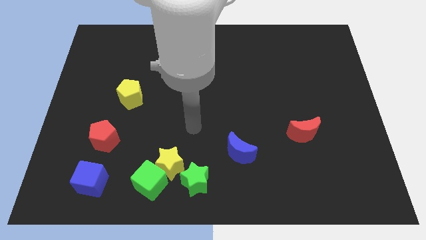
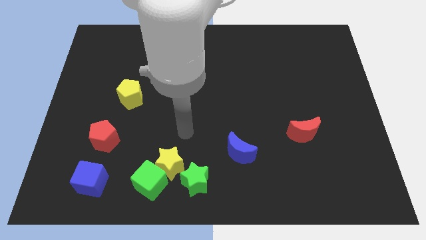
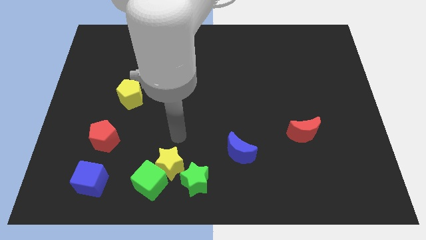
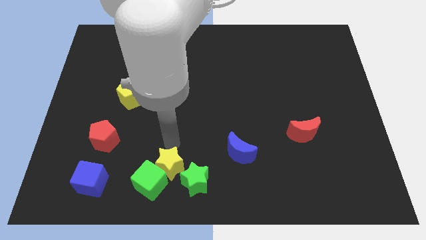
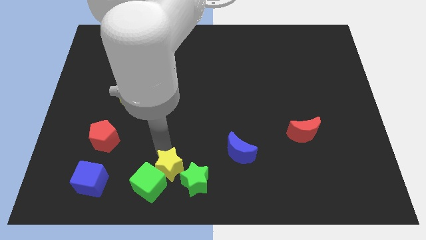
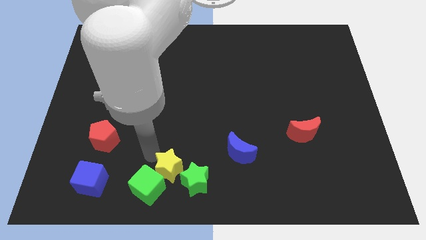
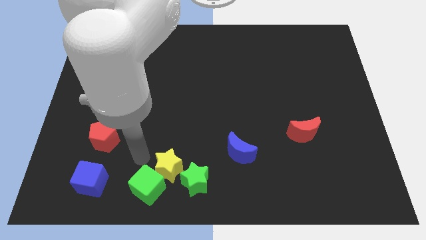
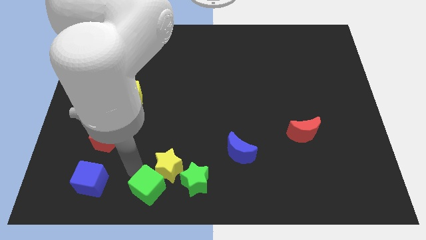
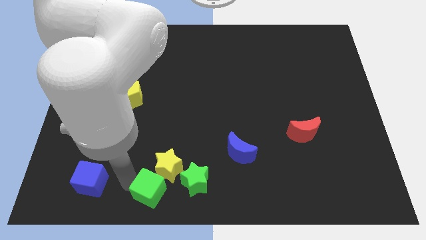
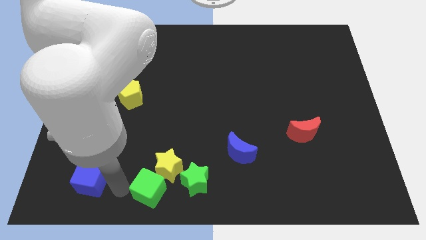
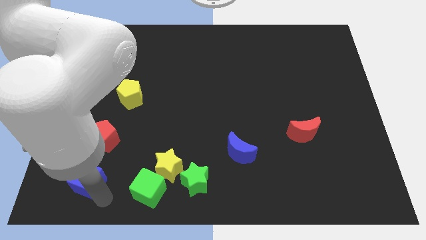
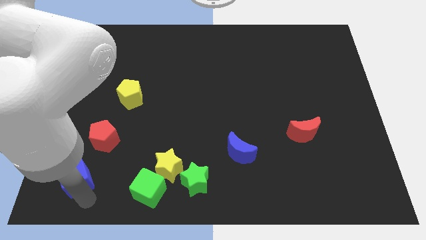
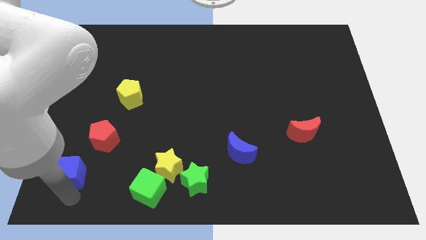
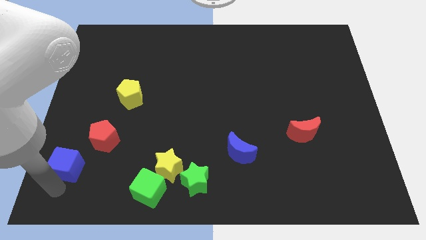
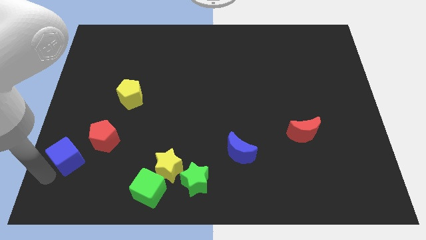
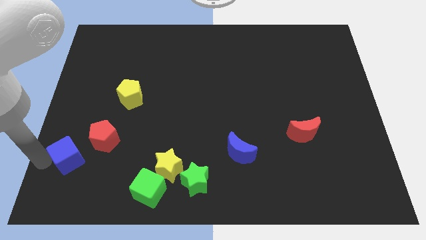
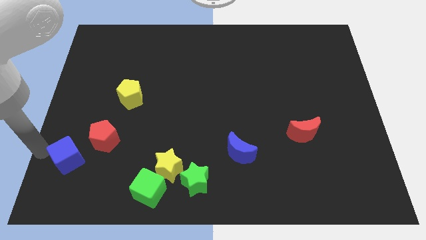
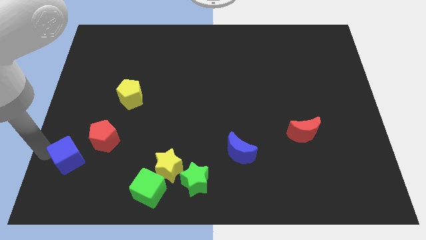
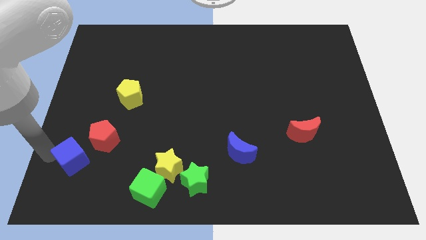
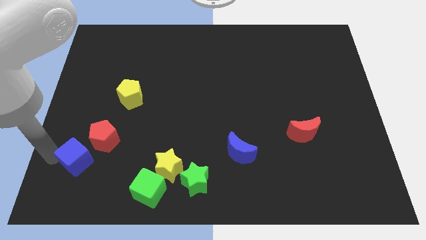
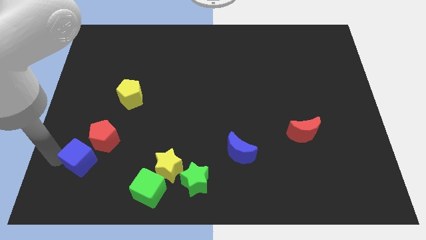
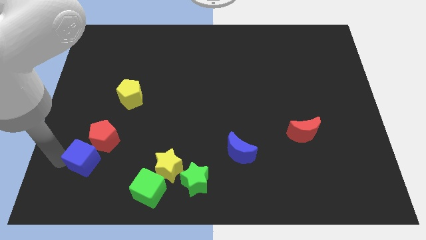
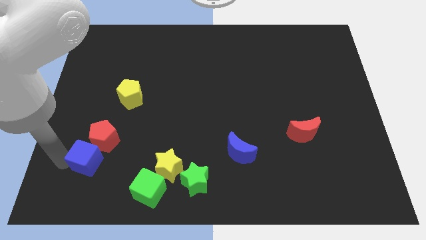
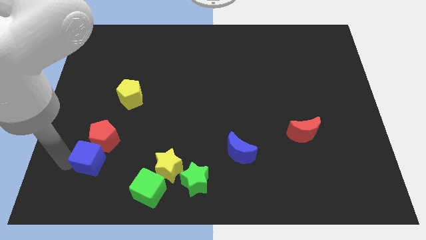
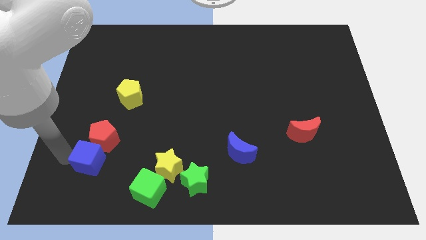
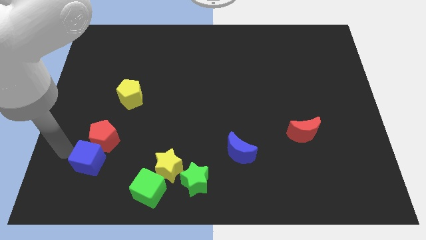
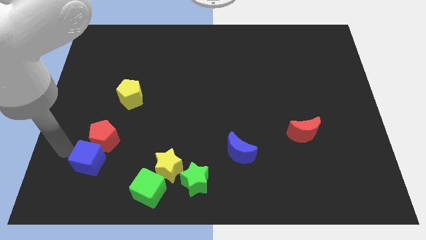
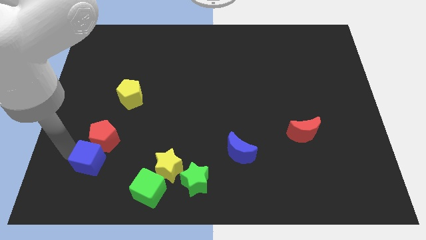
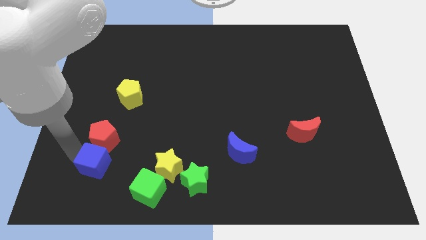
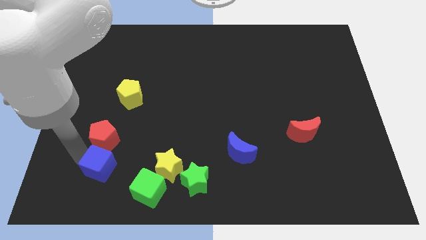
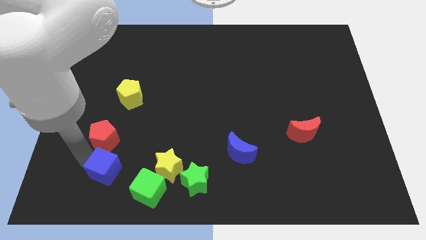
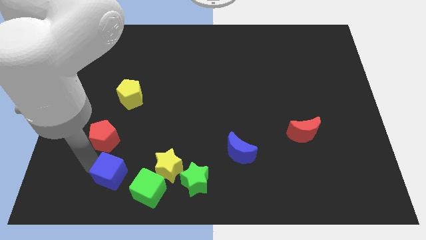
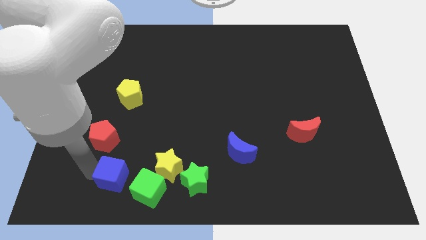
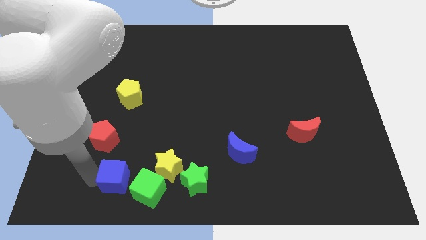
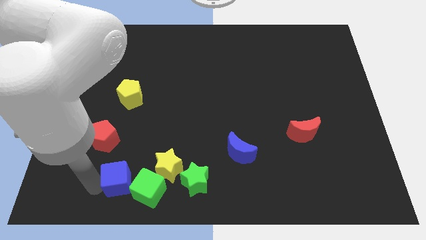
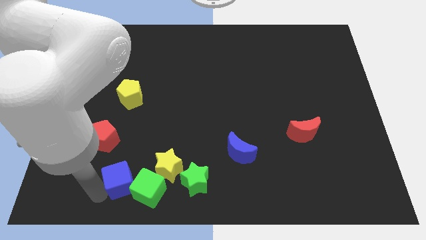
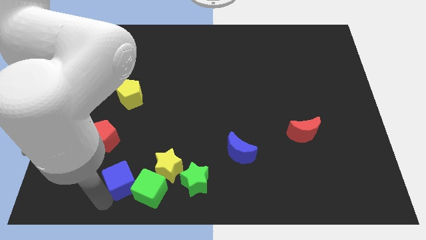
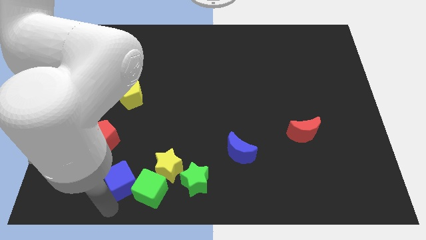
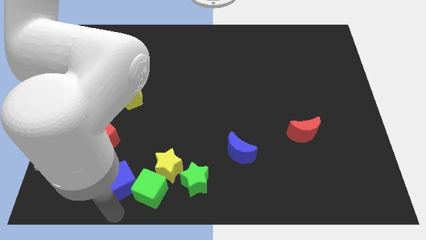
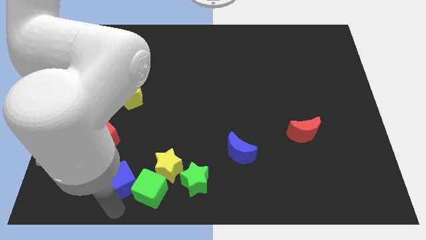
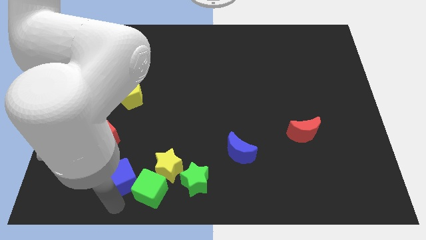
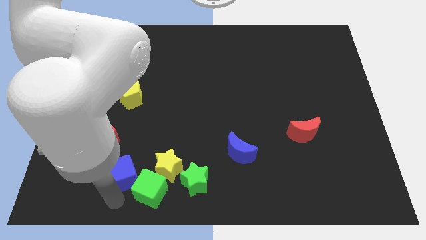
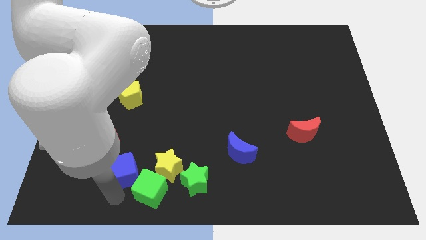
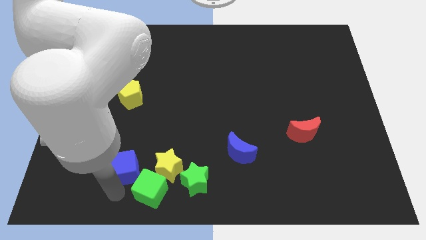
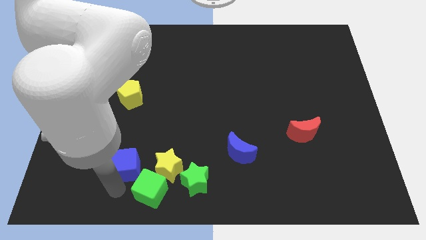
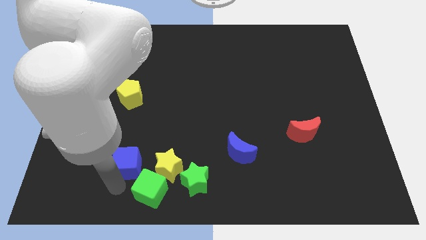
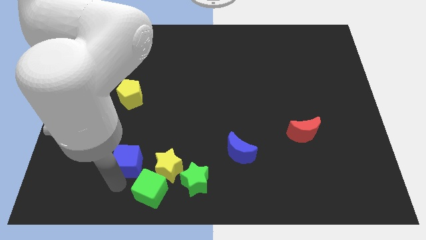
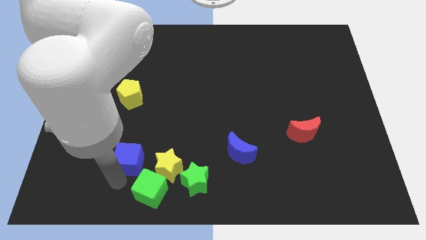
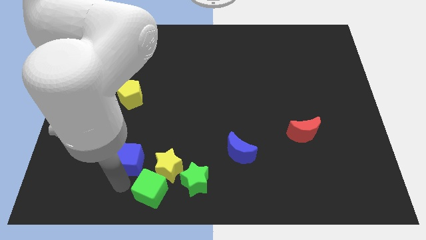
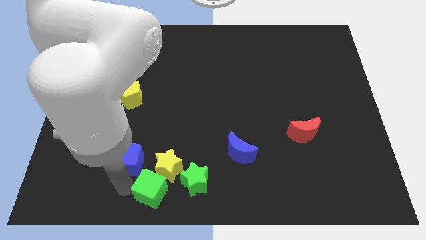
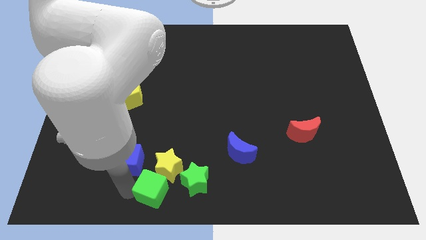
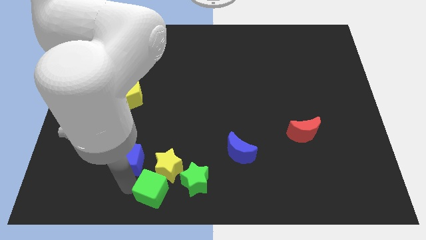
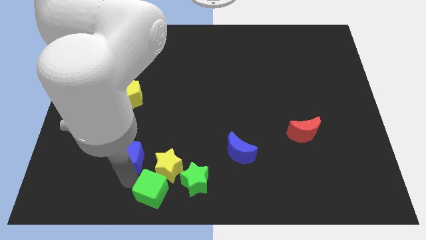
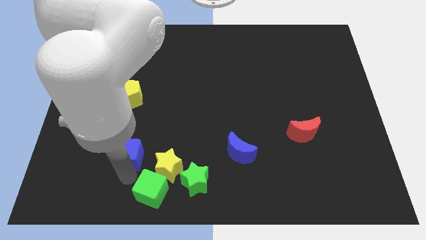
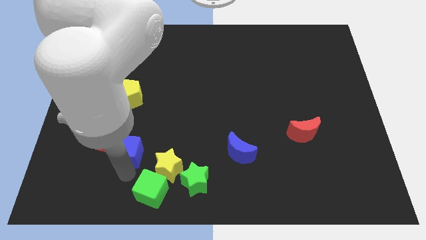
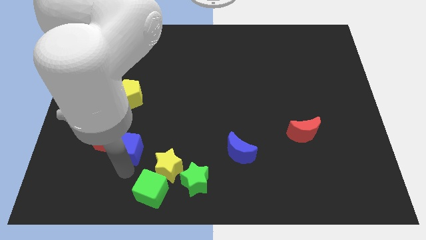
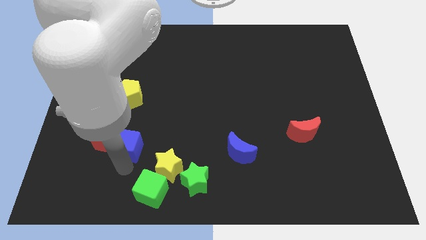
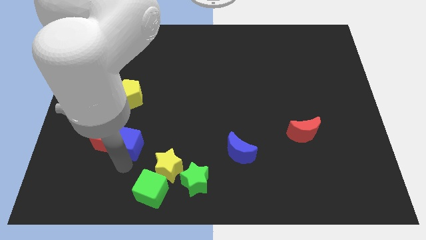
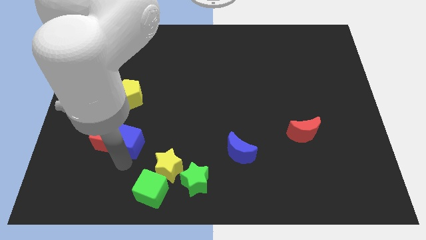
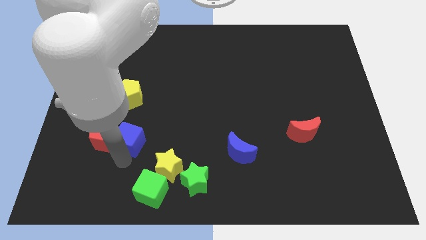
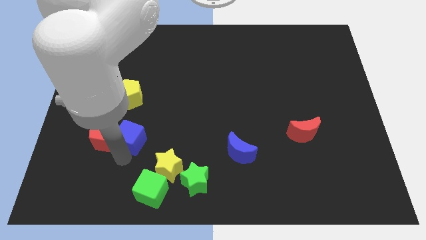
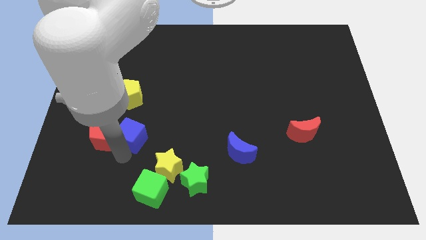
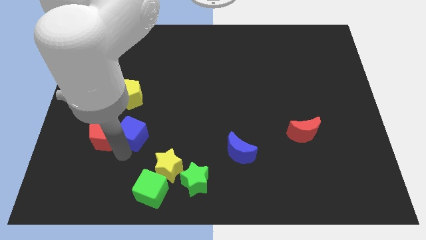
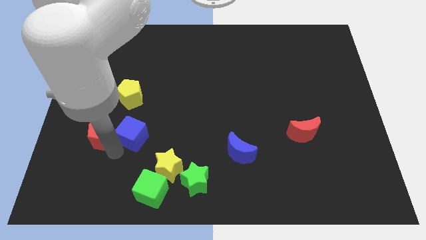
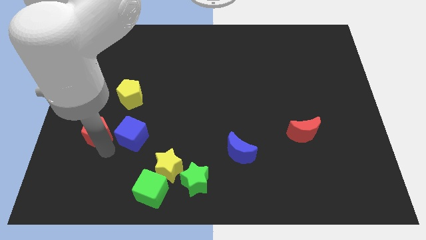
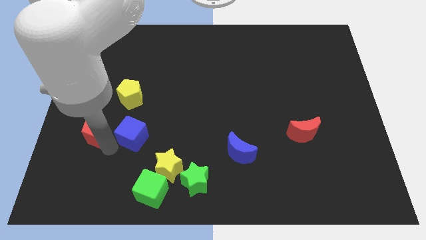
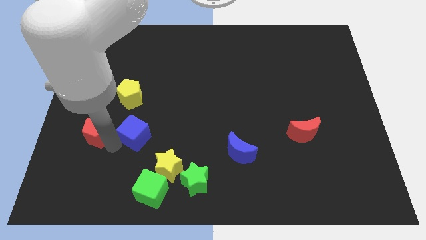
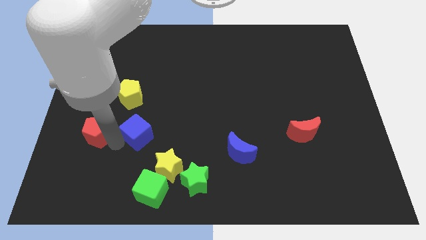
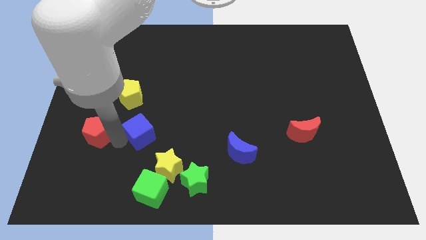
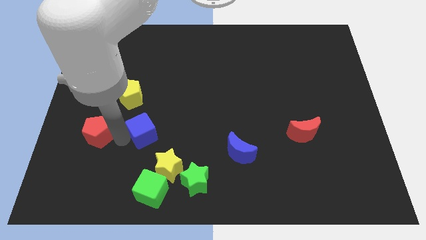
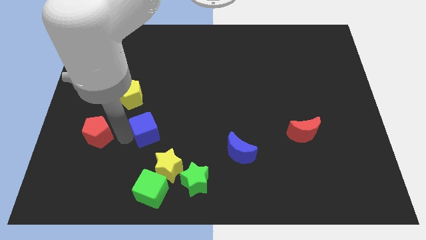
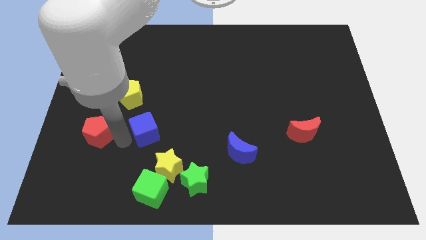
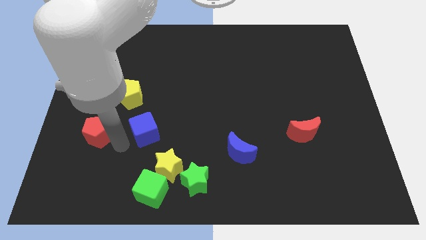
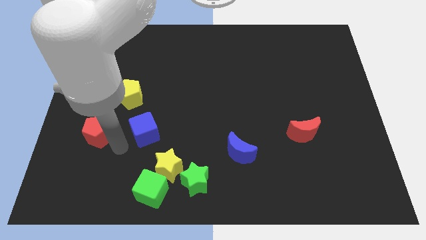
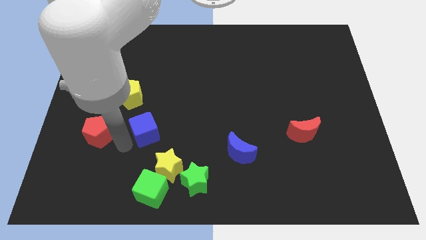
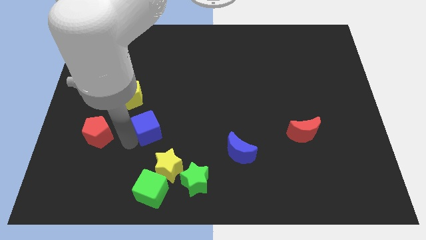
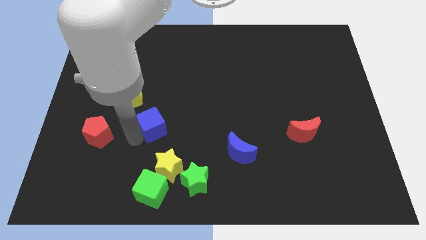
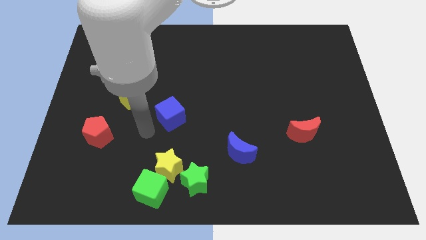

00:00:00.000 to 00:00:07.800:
push the blue cube diagonally upwards and right
